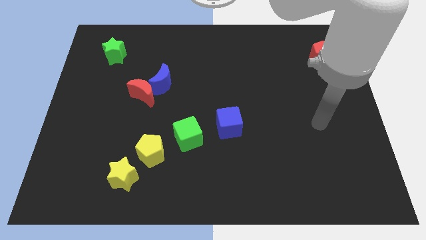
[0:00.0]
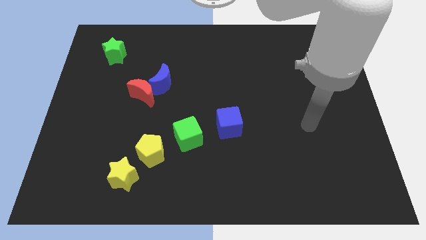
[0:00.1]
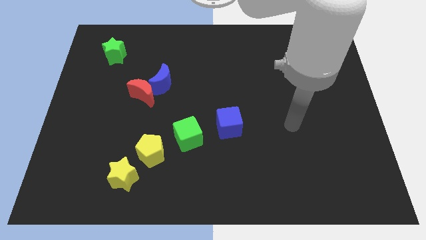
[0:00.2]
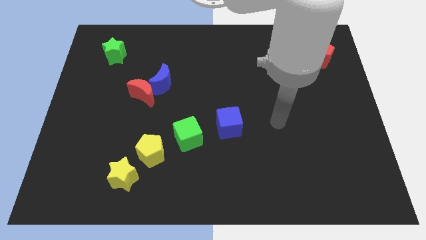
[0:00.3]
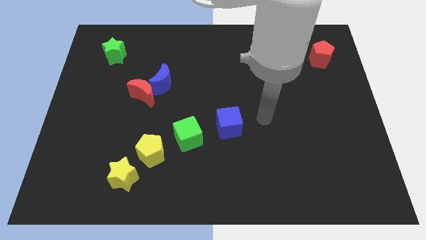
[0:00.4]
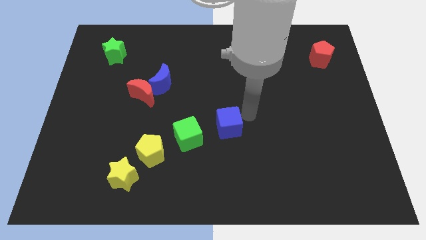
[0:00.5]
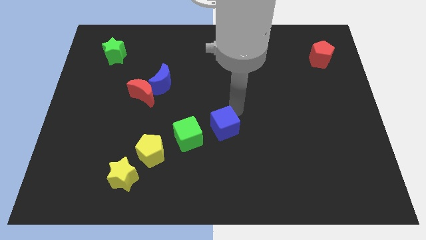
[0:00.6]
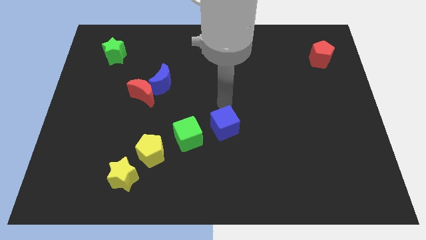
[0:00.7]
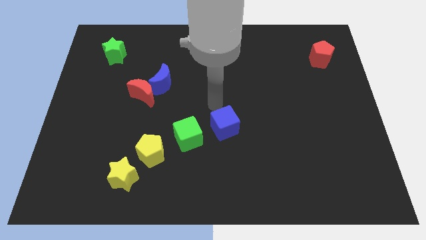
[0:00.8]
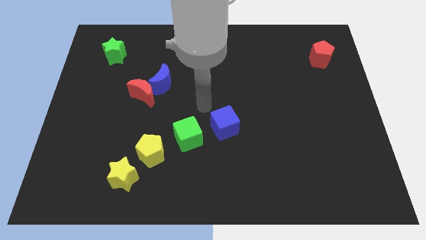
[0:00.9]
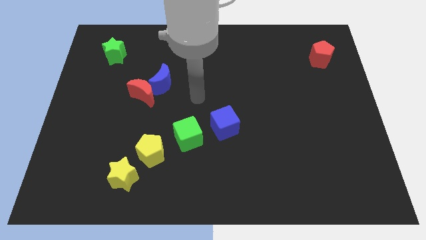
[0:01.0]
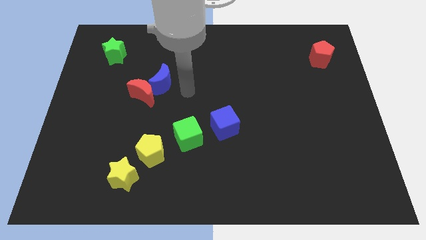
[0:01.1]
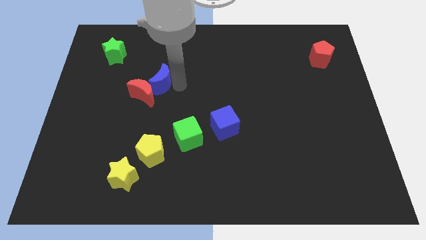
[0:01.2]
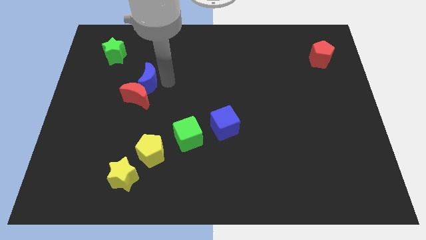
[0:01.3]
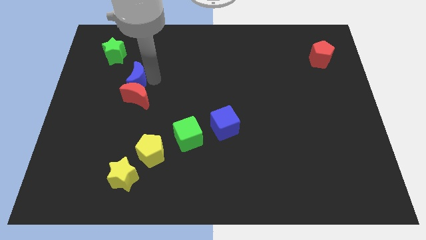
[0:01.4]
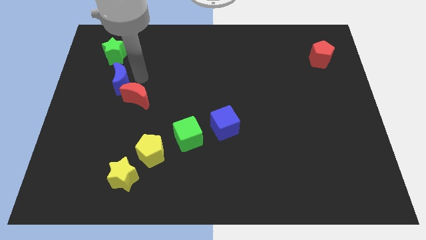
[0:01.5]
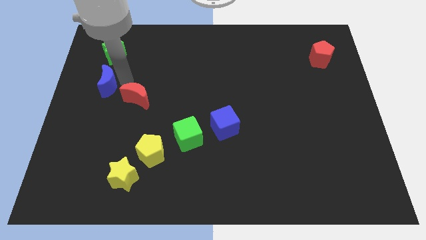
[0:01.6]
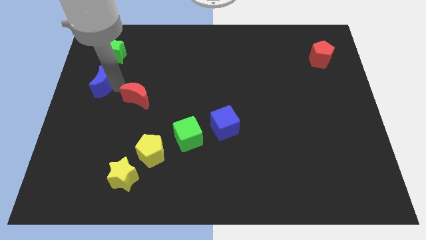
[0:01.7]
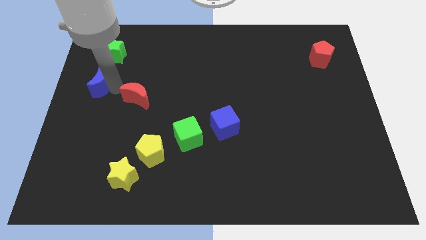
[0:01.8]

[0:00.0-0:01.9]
move the red moon away from the blue moon

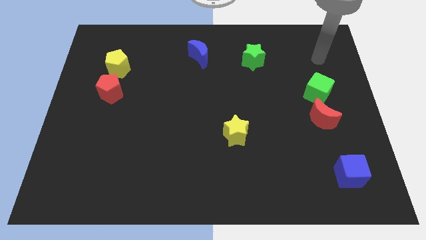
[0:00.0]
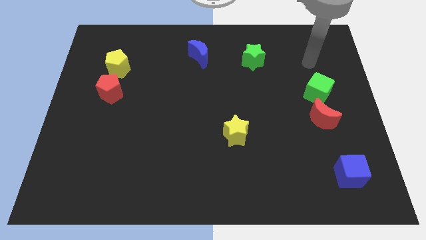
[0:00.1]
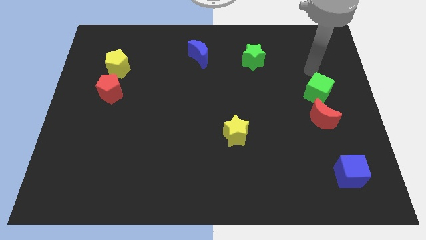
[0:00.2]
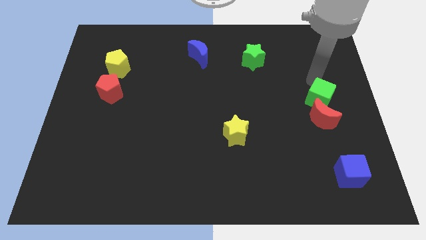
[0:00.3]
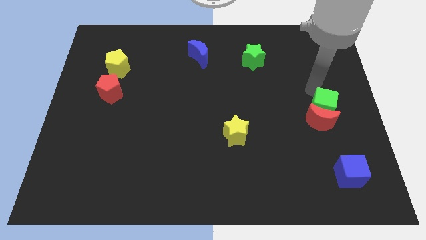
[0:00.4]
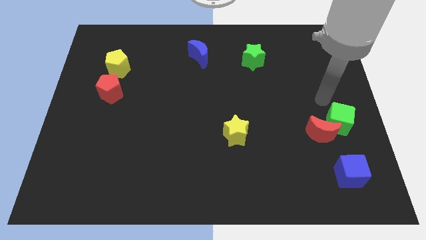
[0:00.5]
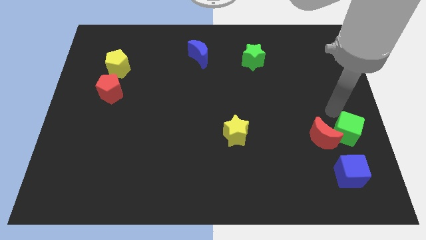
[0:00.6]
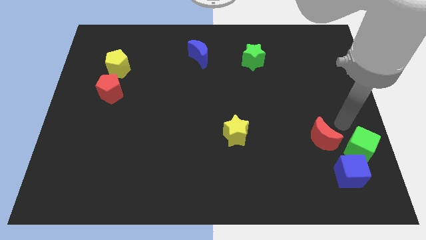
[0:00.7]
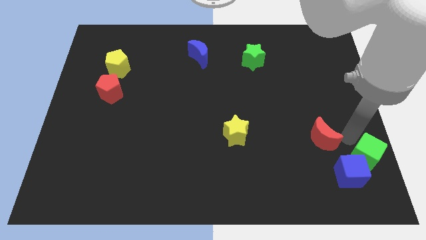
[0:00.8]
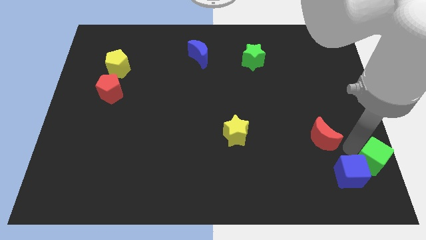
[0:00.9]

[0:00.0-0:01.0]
pull the red moon apart from the green cube

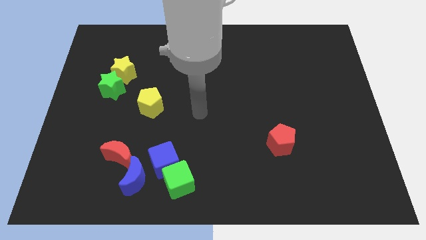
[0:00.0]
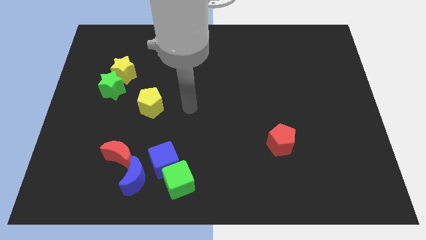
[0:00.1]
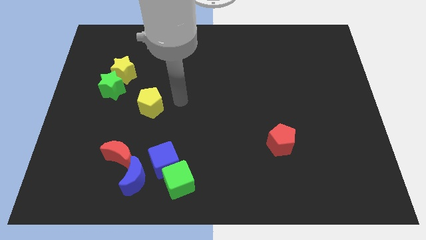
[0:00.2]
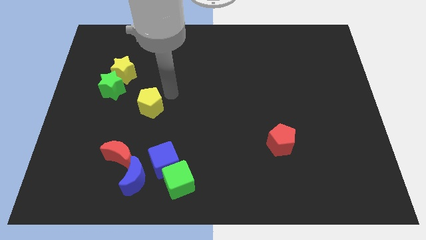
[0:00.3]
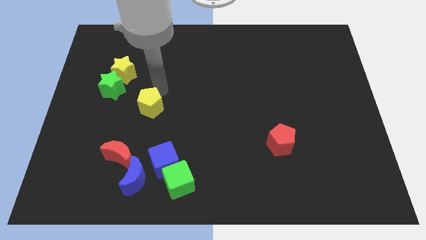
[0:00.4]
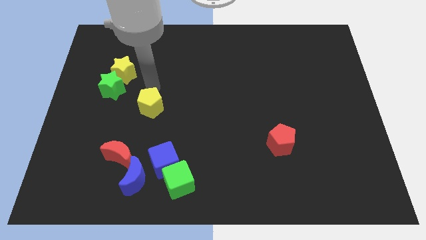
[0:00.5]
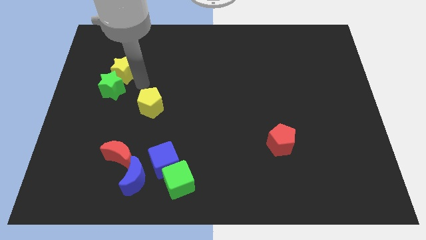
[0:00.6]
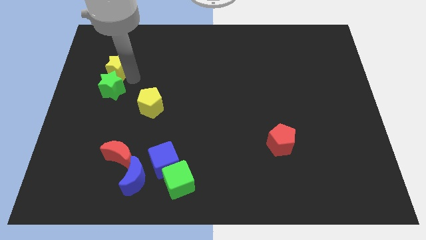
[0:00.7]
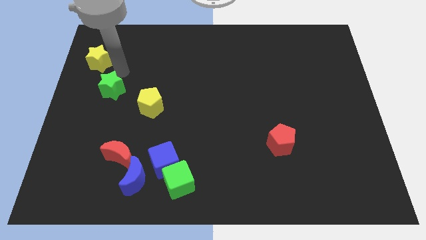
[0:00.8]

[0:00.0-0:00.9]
move the green star away from the yellow star

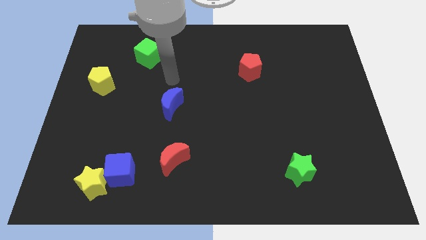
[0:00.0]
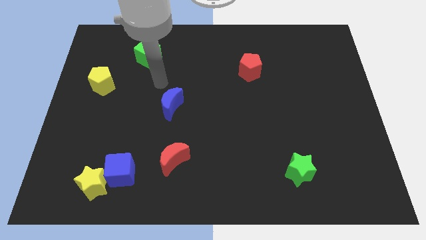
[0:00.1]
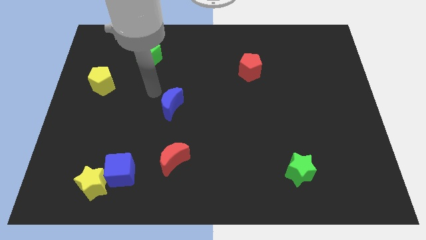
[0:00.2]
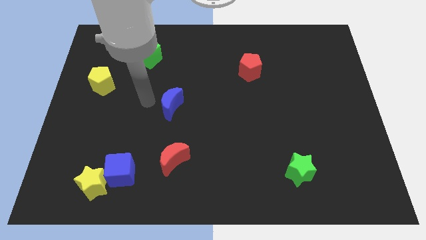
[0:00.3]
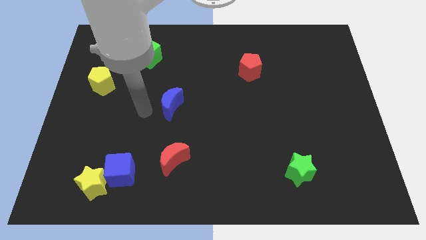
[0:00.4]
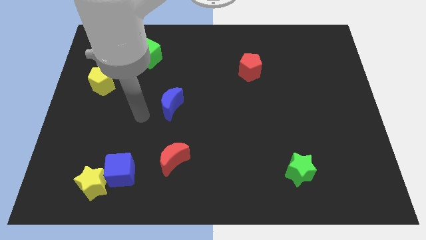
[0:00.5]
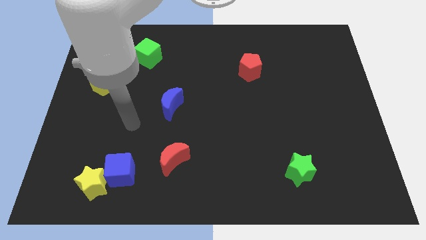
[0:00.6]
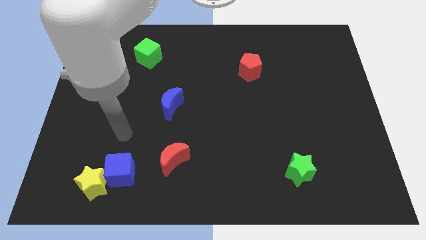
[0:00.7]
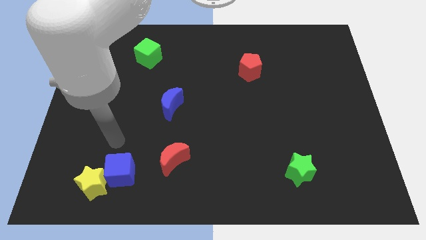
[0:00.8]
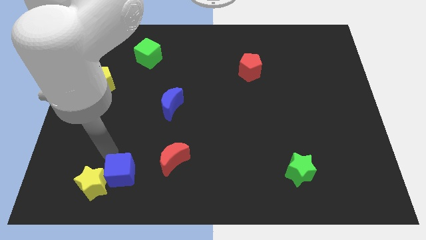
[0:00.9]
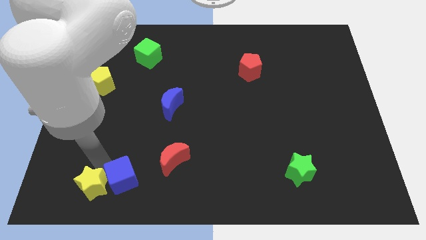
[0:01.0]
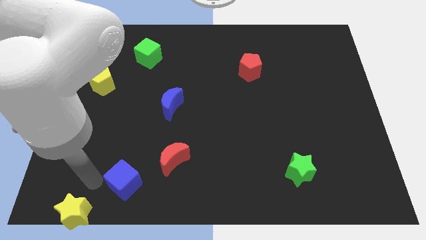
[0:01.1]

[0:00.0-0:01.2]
separate the blue cube from the yellow star

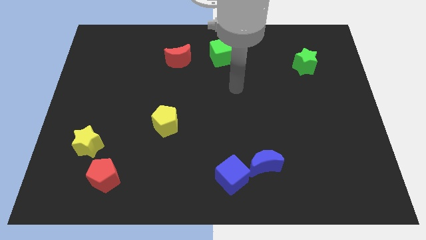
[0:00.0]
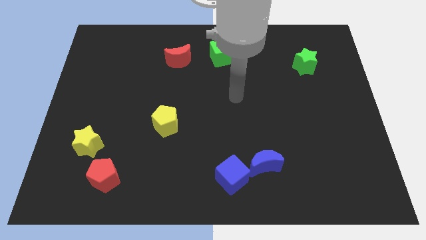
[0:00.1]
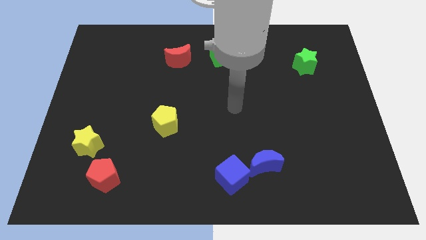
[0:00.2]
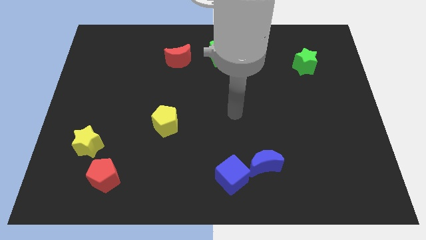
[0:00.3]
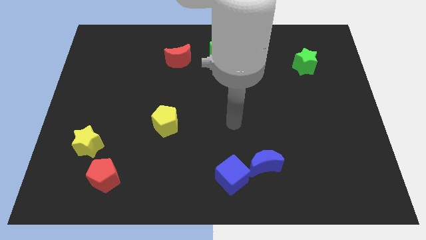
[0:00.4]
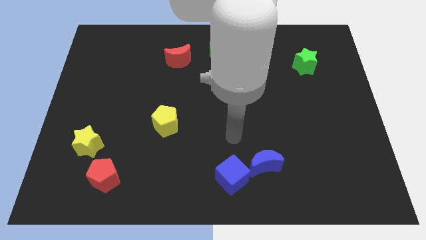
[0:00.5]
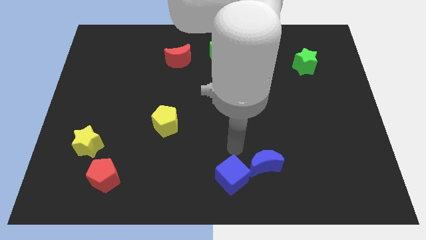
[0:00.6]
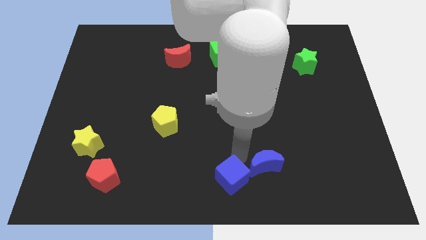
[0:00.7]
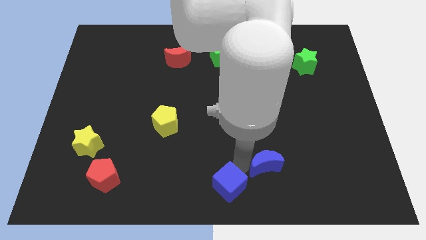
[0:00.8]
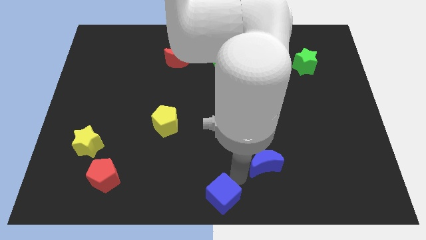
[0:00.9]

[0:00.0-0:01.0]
move the blue moon away from the blue cube

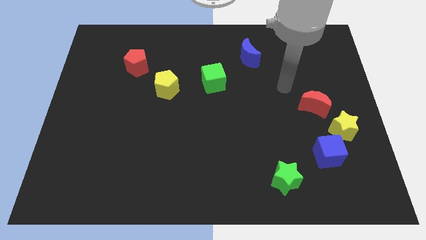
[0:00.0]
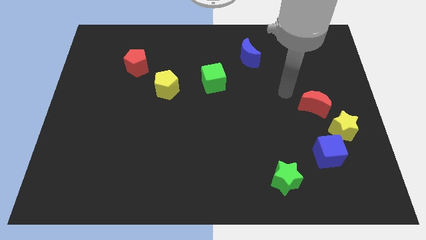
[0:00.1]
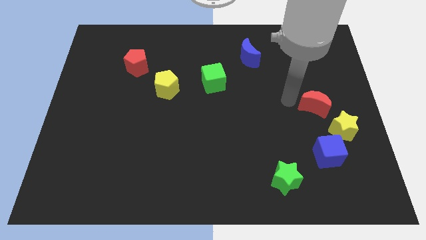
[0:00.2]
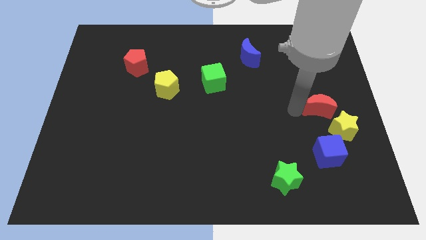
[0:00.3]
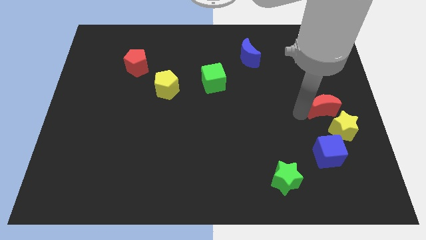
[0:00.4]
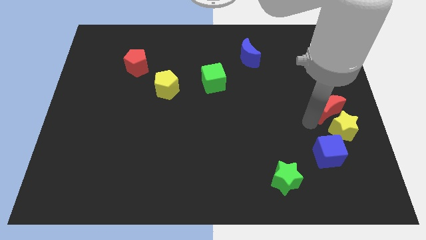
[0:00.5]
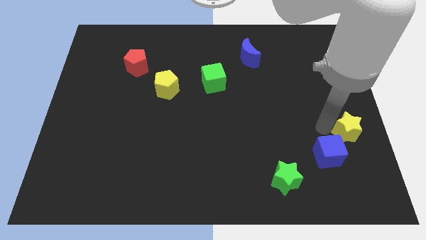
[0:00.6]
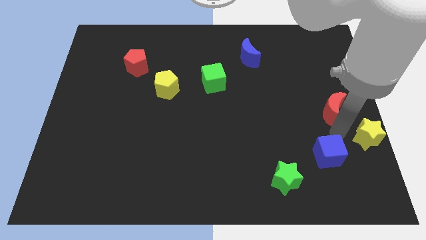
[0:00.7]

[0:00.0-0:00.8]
pull the blue cube apart from the yellow star

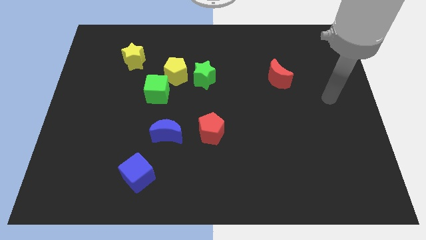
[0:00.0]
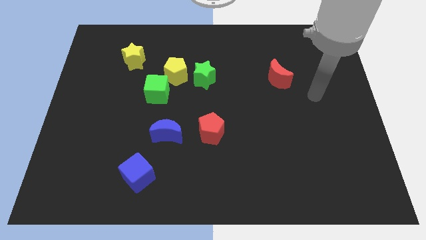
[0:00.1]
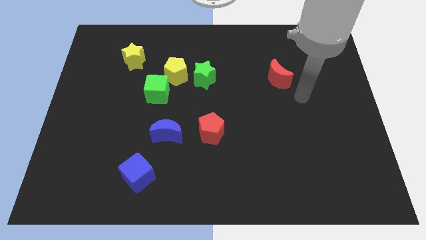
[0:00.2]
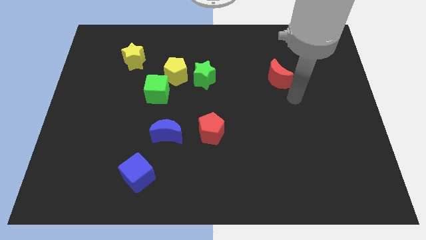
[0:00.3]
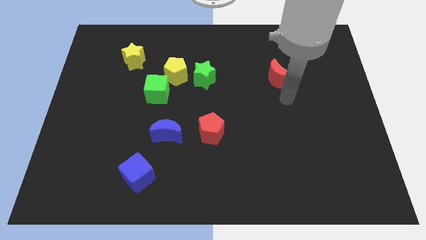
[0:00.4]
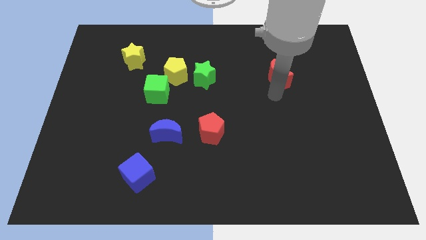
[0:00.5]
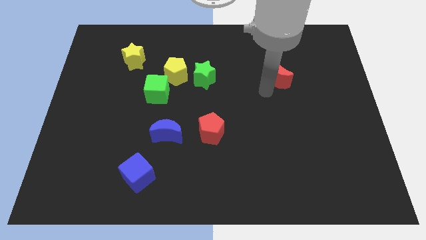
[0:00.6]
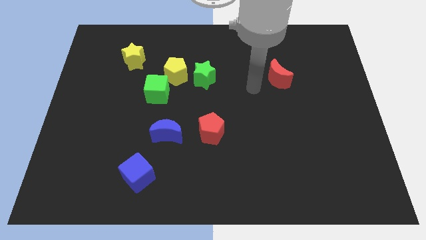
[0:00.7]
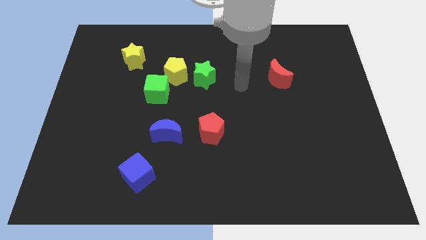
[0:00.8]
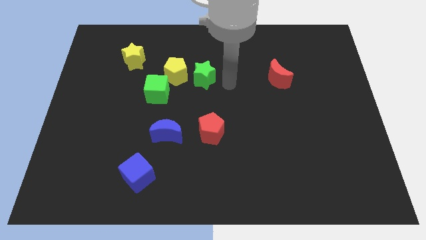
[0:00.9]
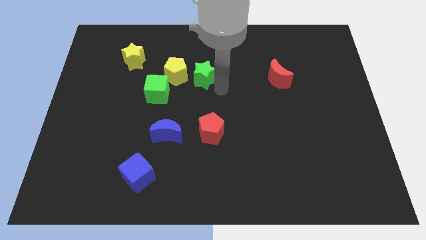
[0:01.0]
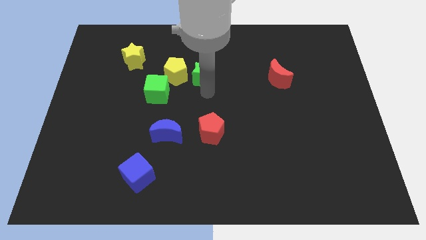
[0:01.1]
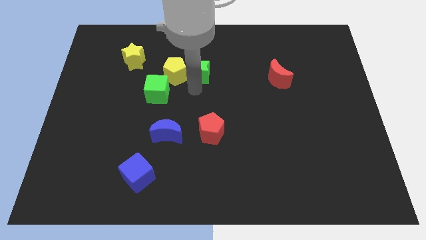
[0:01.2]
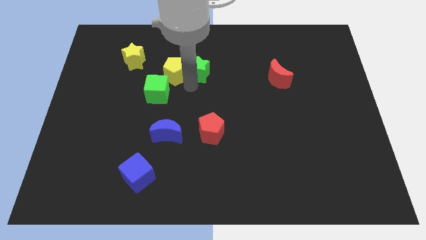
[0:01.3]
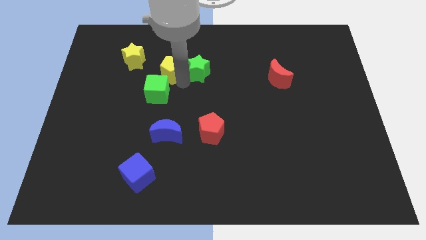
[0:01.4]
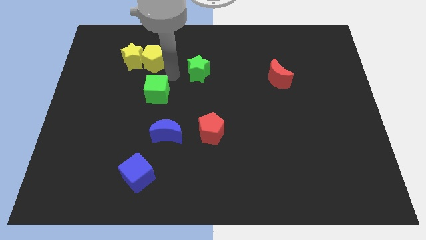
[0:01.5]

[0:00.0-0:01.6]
separate the green cube from the yellow pentagon

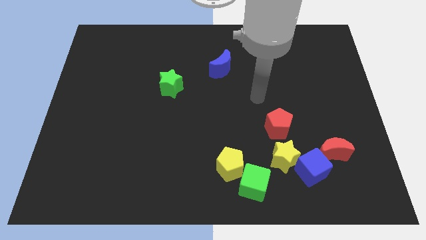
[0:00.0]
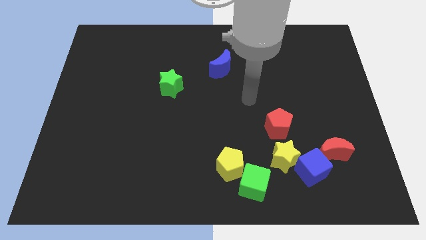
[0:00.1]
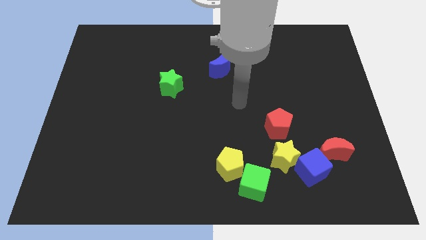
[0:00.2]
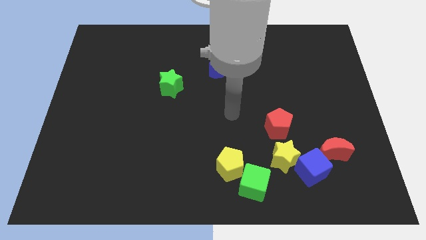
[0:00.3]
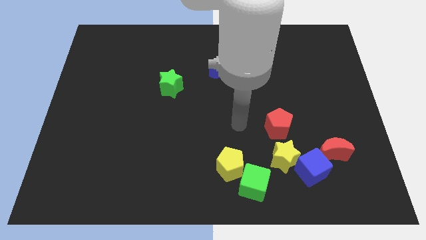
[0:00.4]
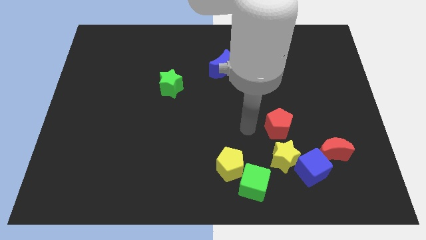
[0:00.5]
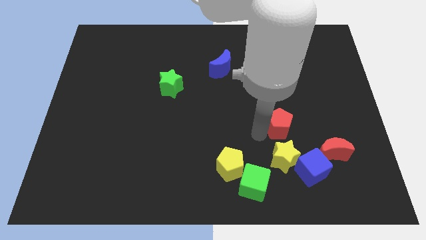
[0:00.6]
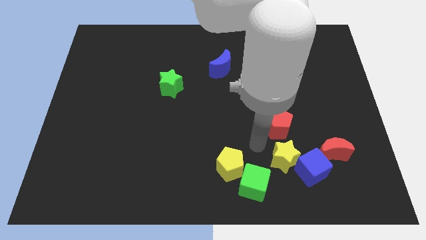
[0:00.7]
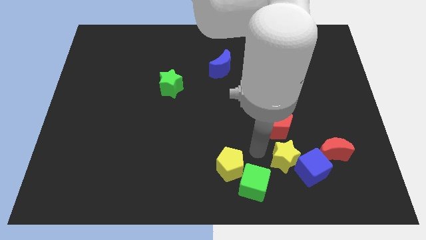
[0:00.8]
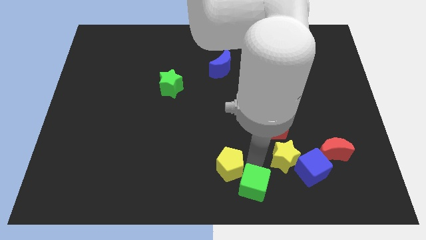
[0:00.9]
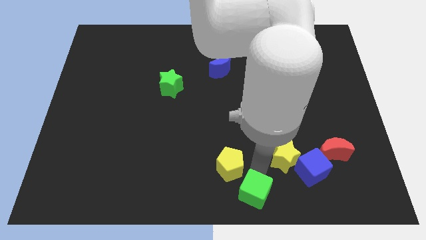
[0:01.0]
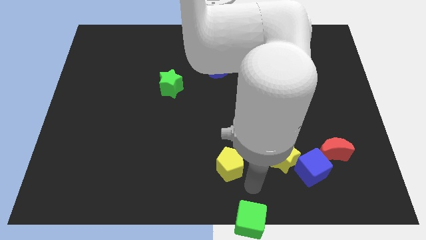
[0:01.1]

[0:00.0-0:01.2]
pull the yellow pentagon apart from the green cube
